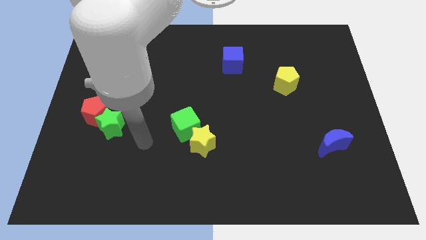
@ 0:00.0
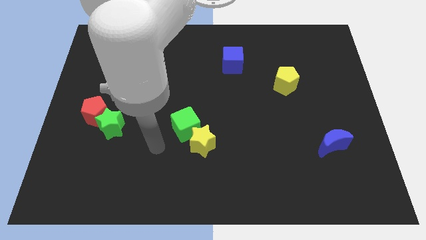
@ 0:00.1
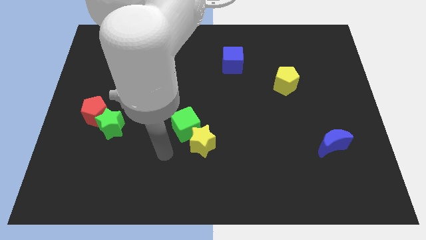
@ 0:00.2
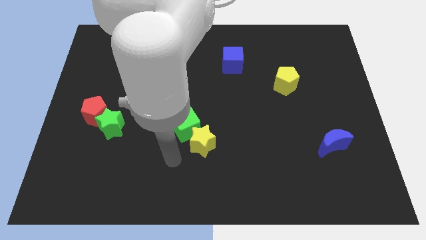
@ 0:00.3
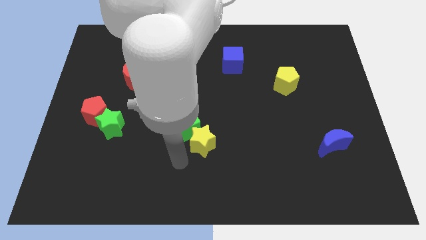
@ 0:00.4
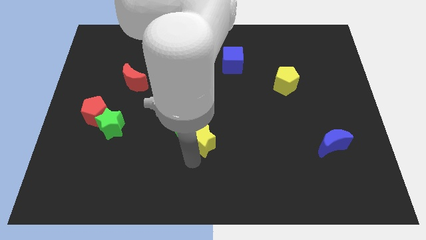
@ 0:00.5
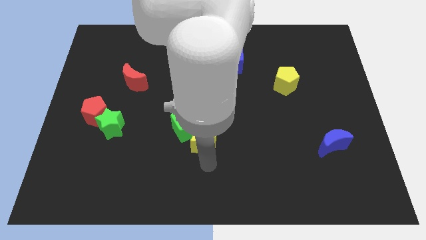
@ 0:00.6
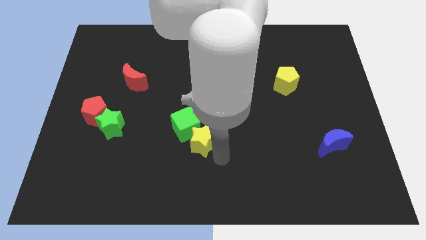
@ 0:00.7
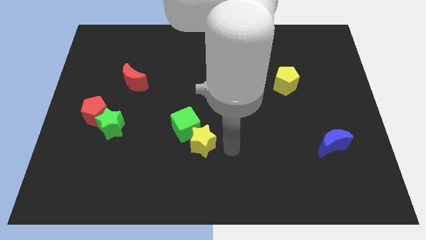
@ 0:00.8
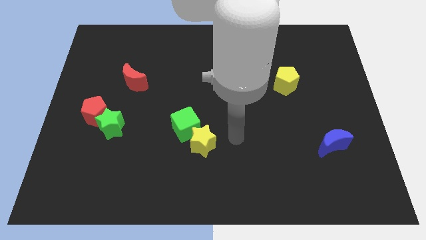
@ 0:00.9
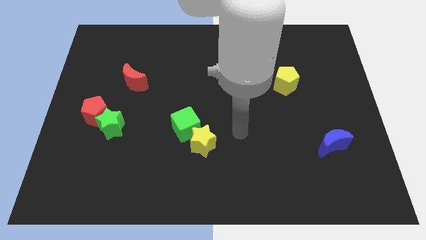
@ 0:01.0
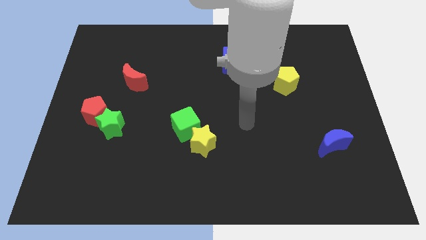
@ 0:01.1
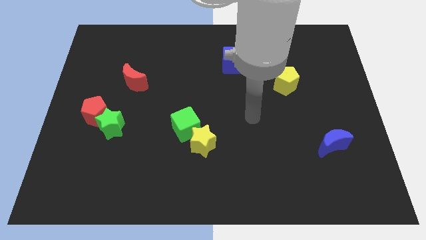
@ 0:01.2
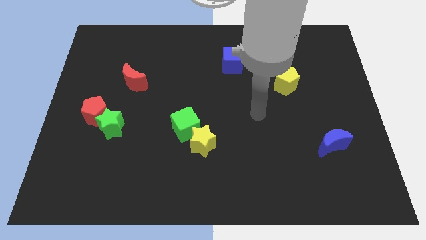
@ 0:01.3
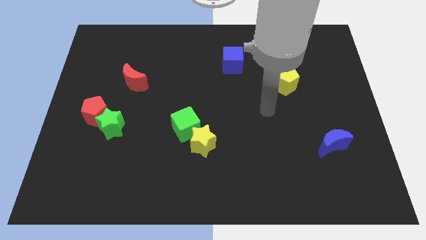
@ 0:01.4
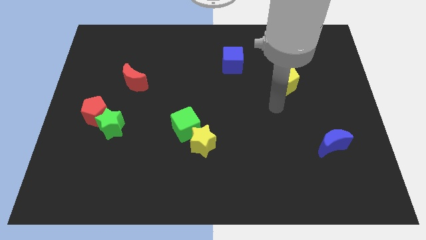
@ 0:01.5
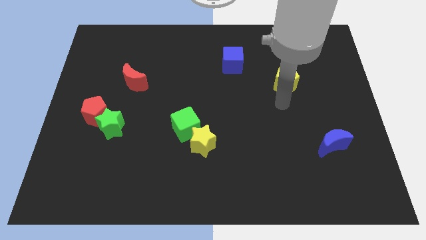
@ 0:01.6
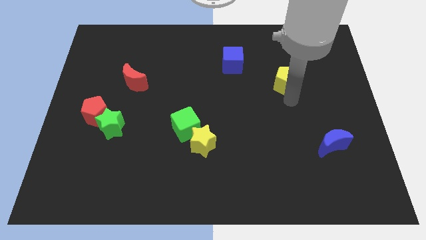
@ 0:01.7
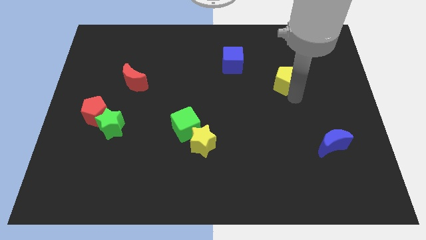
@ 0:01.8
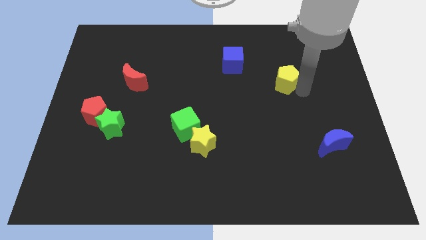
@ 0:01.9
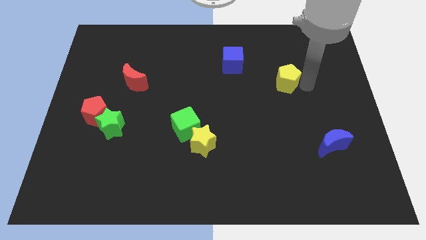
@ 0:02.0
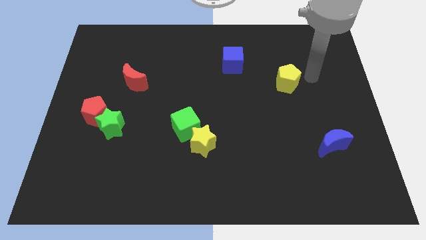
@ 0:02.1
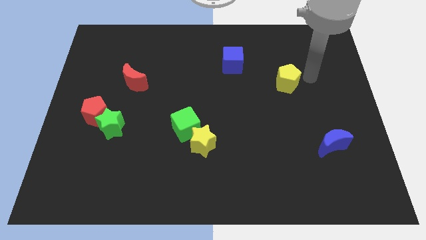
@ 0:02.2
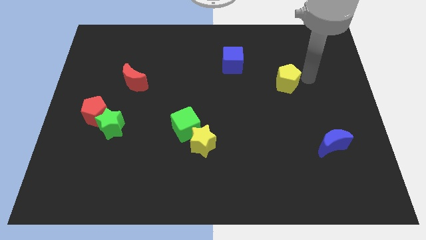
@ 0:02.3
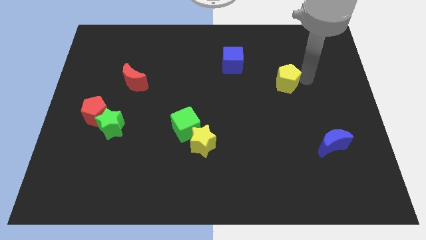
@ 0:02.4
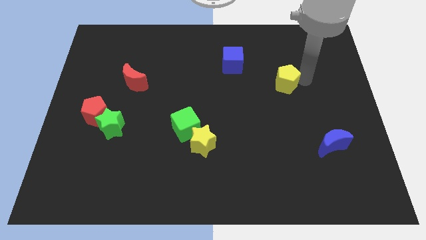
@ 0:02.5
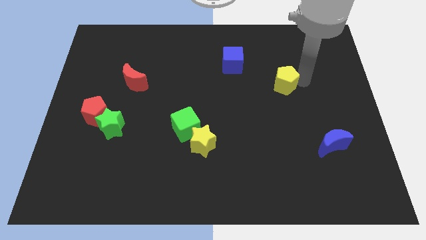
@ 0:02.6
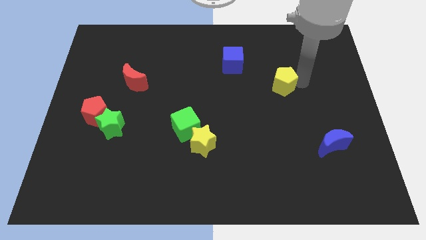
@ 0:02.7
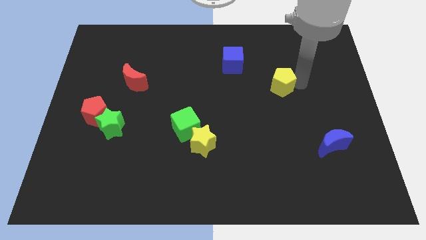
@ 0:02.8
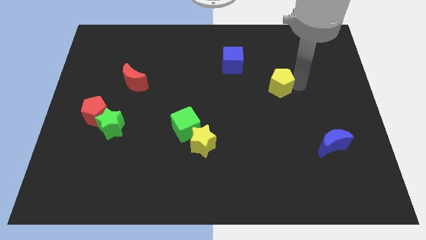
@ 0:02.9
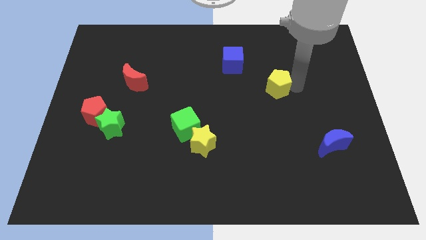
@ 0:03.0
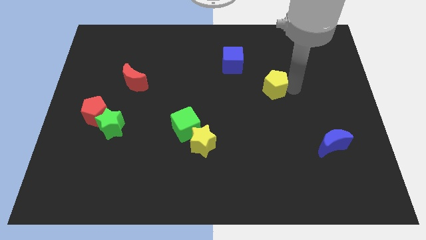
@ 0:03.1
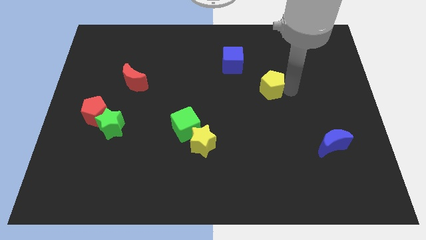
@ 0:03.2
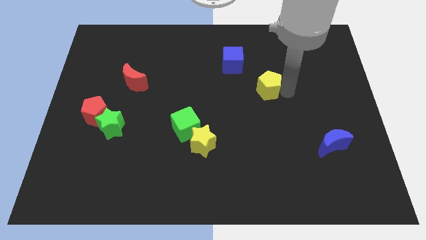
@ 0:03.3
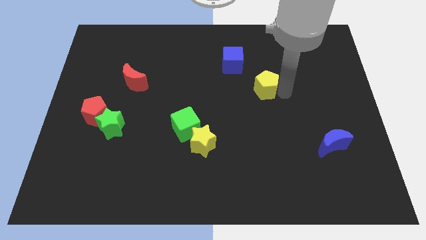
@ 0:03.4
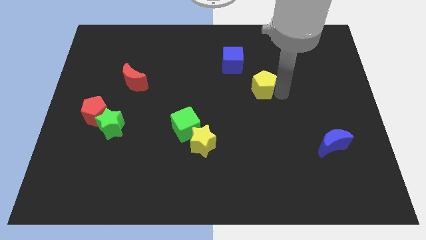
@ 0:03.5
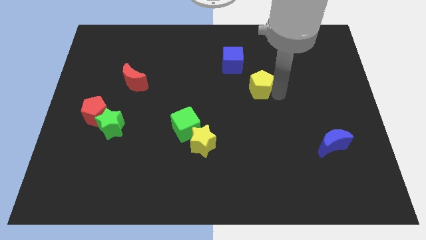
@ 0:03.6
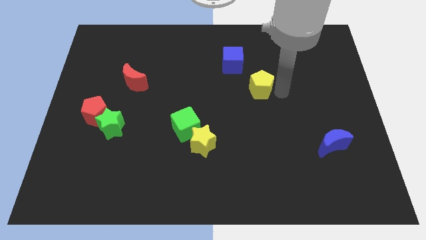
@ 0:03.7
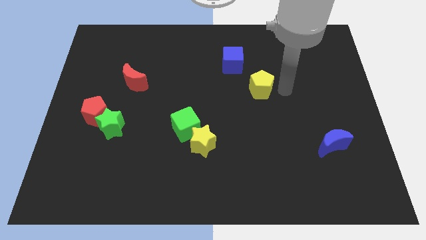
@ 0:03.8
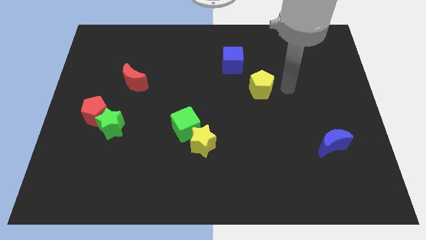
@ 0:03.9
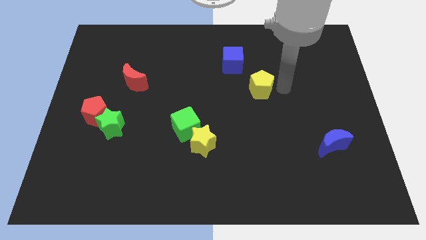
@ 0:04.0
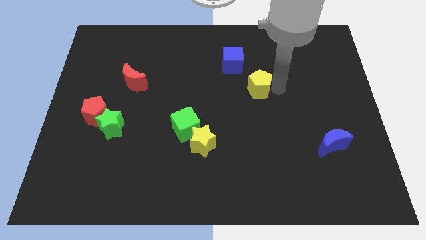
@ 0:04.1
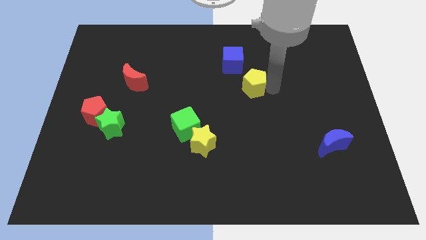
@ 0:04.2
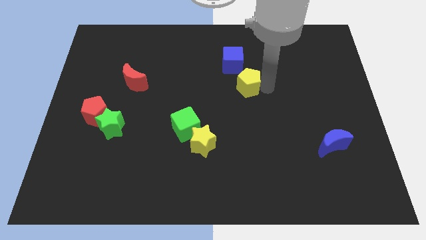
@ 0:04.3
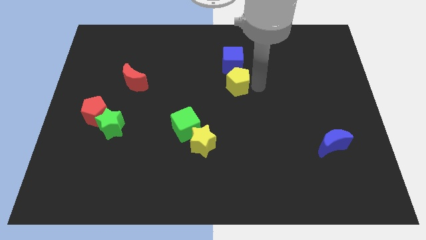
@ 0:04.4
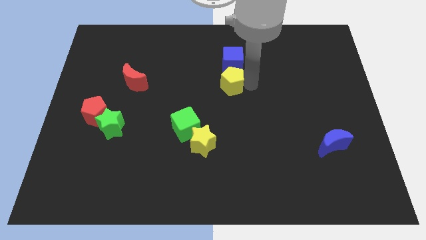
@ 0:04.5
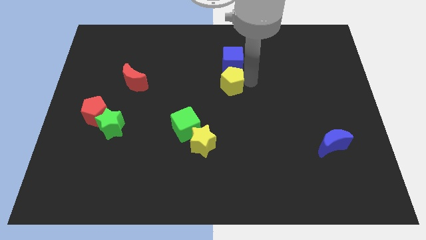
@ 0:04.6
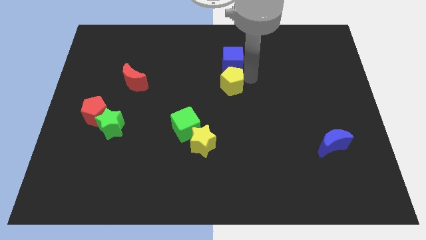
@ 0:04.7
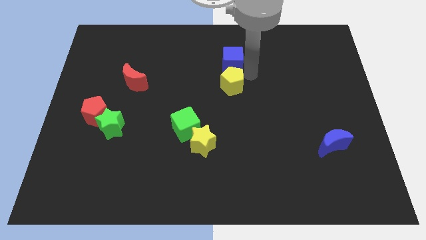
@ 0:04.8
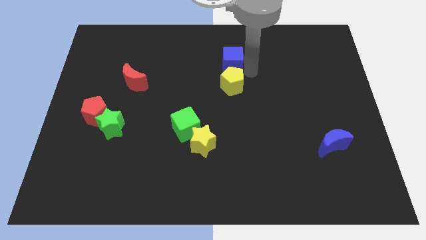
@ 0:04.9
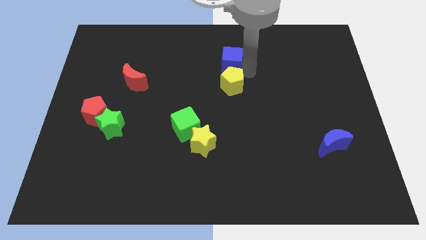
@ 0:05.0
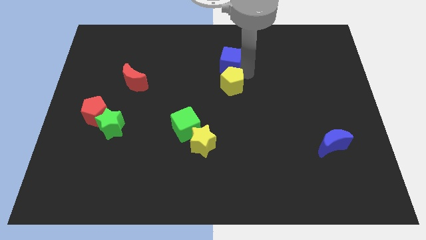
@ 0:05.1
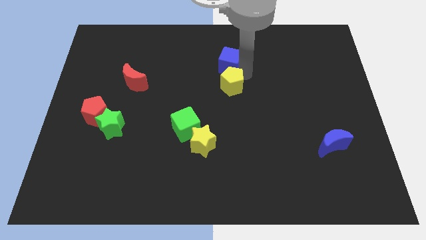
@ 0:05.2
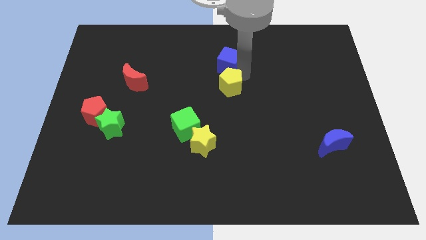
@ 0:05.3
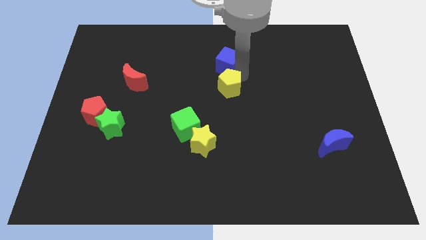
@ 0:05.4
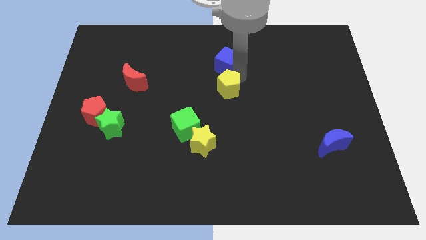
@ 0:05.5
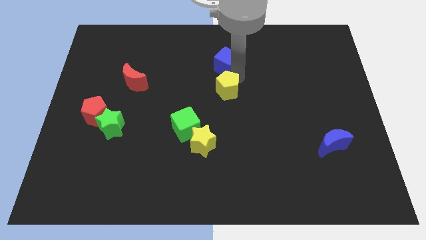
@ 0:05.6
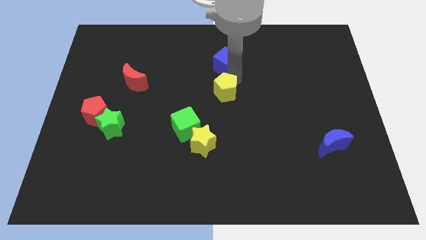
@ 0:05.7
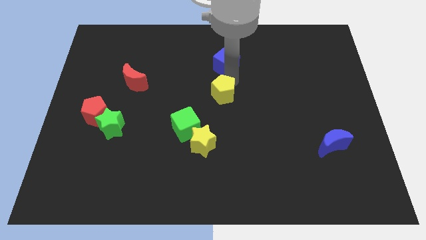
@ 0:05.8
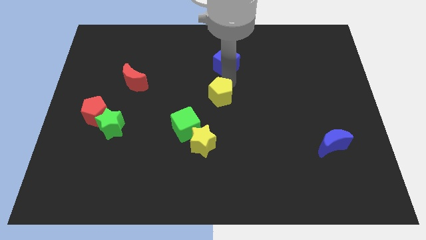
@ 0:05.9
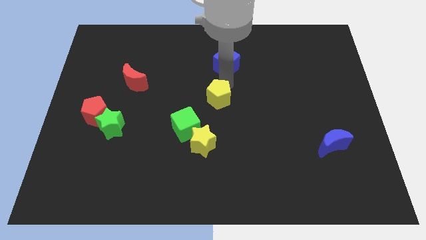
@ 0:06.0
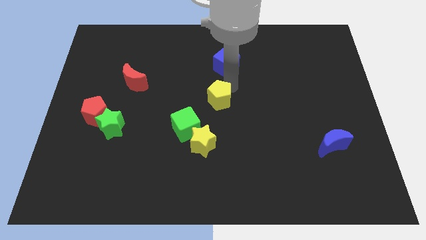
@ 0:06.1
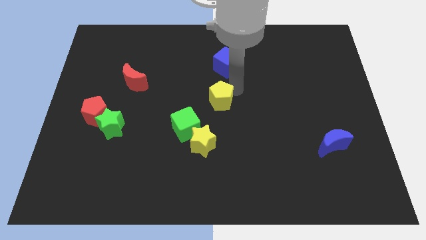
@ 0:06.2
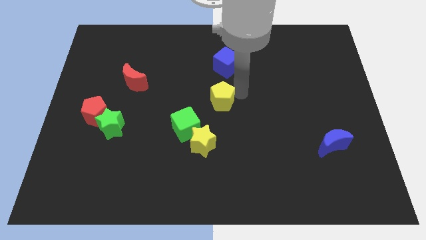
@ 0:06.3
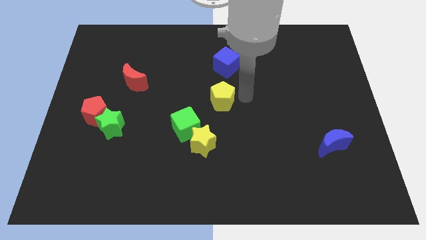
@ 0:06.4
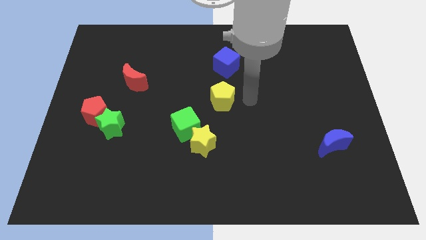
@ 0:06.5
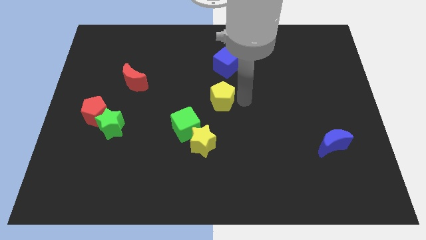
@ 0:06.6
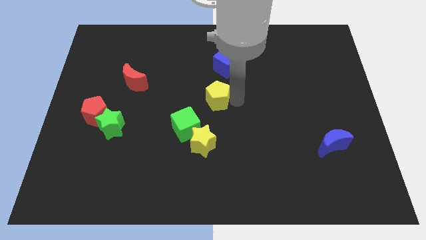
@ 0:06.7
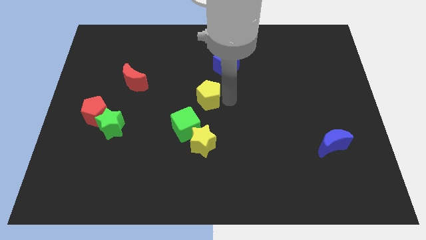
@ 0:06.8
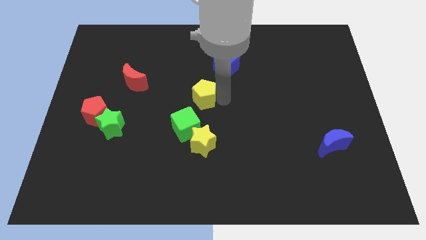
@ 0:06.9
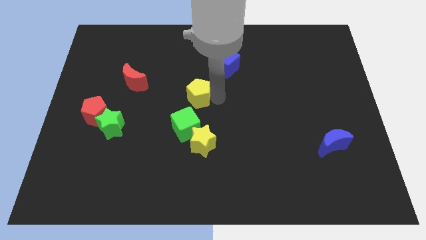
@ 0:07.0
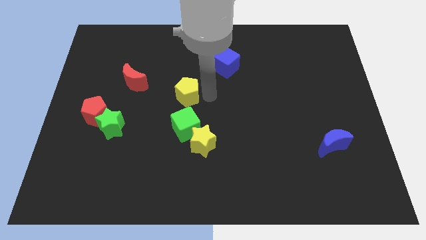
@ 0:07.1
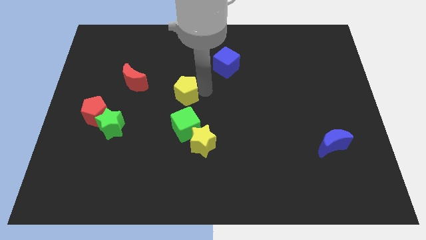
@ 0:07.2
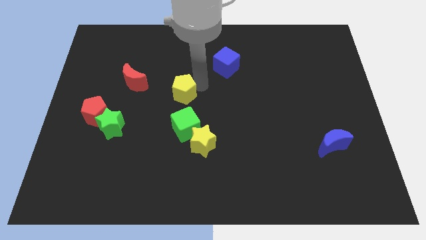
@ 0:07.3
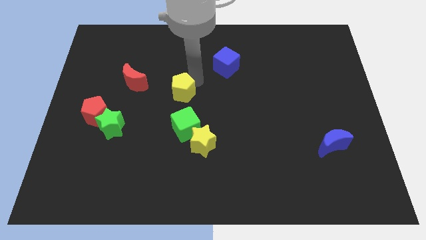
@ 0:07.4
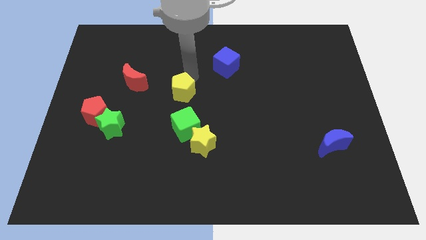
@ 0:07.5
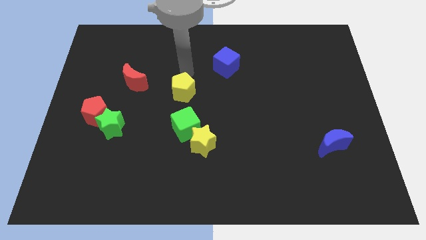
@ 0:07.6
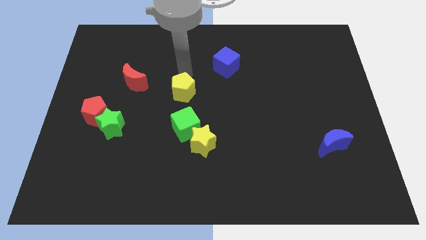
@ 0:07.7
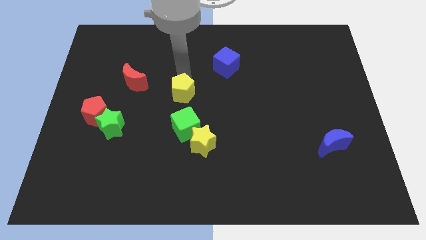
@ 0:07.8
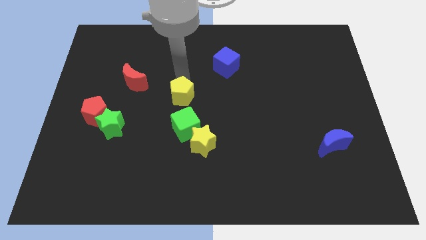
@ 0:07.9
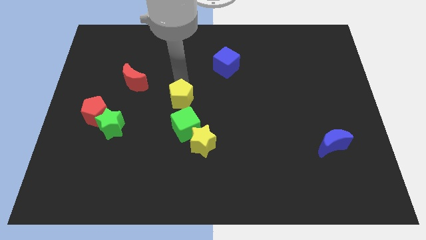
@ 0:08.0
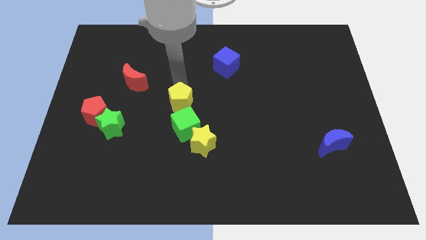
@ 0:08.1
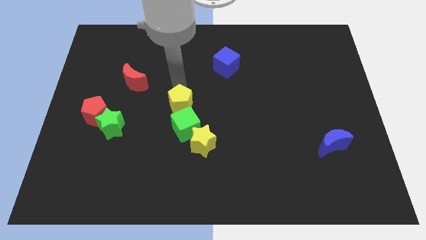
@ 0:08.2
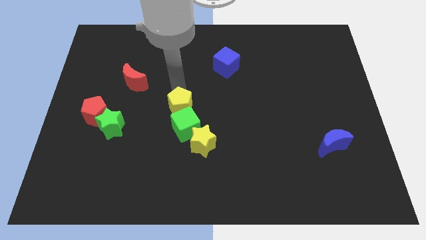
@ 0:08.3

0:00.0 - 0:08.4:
move the yellow pentagon to the top left side of the yellow star
